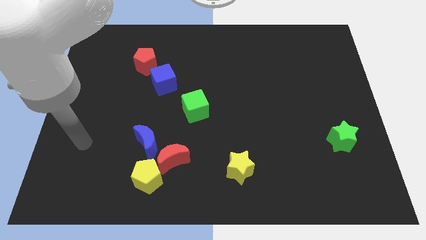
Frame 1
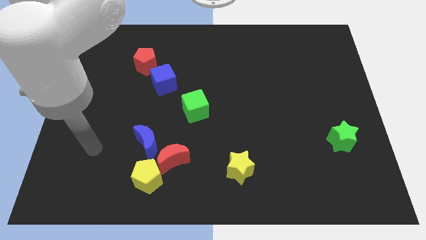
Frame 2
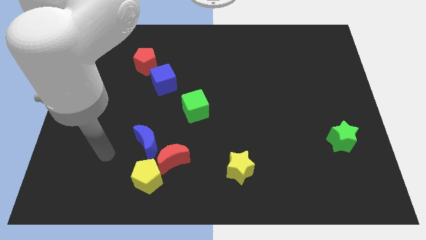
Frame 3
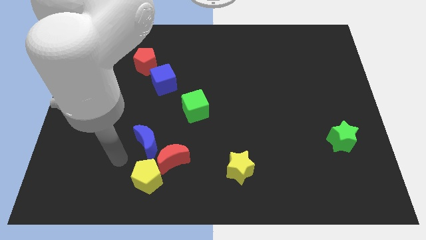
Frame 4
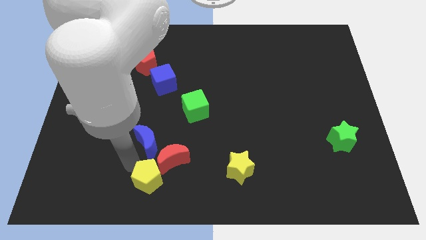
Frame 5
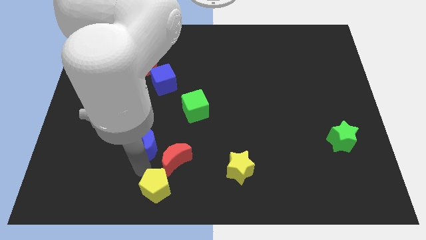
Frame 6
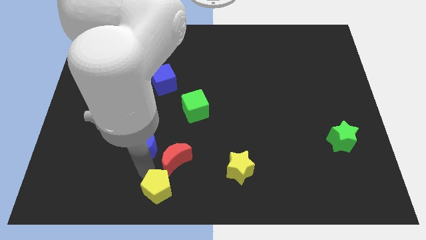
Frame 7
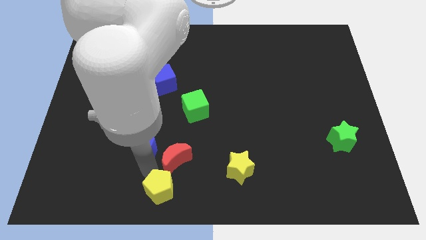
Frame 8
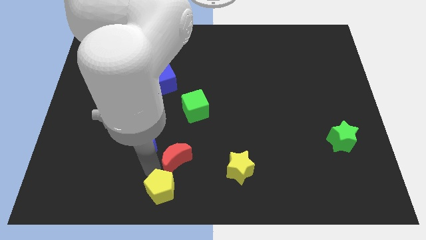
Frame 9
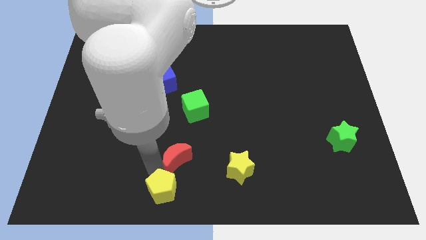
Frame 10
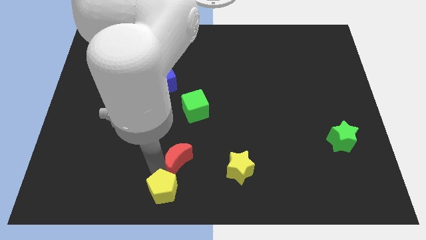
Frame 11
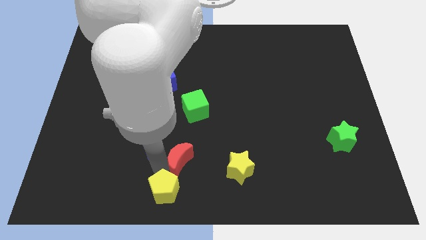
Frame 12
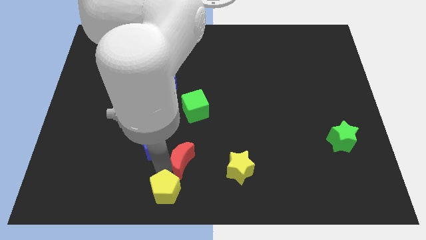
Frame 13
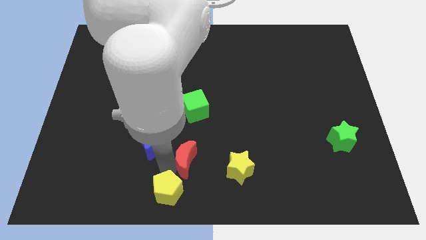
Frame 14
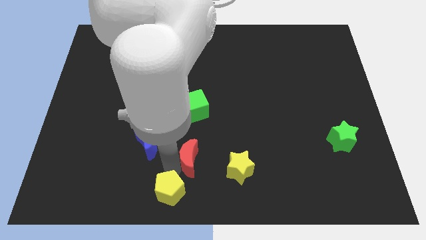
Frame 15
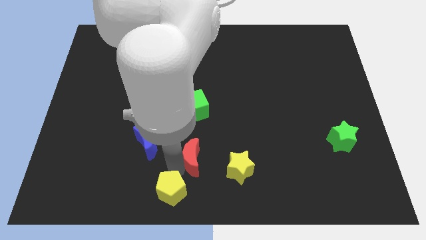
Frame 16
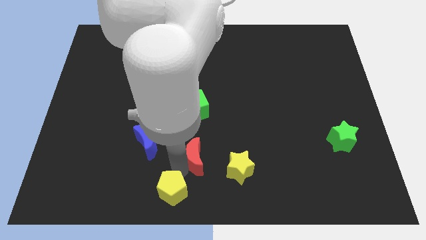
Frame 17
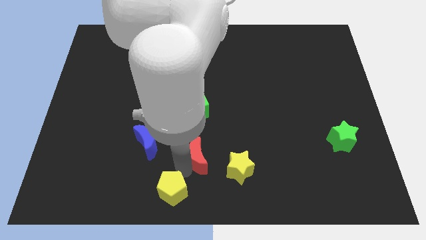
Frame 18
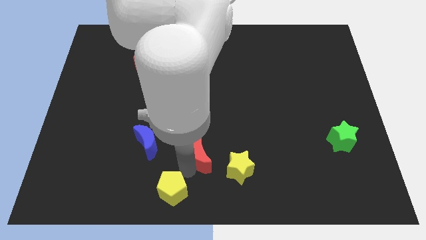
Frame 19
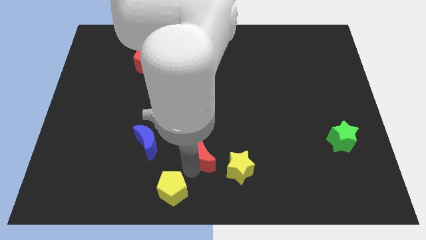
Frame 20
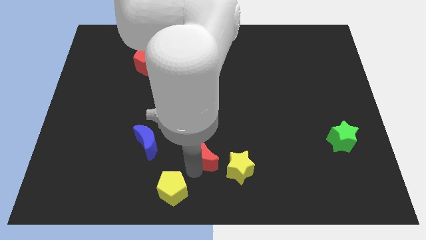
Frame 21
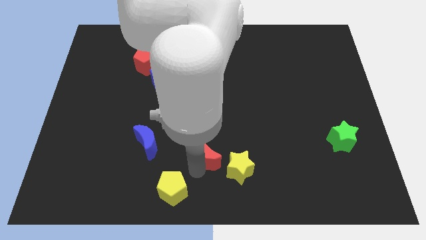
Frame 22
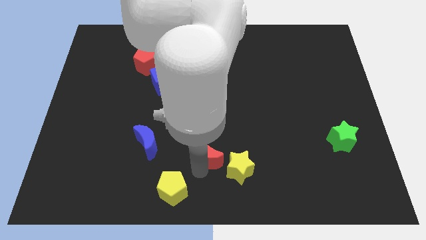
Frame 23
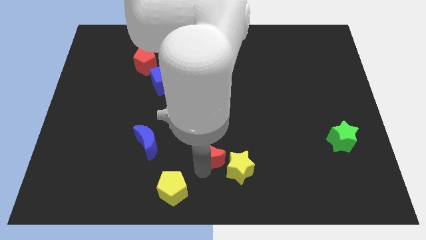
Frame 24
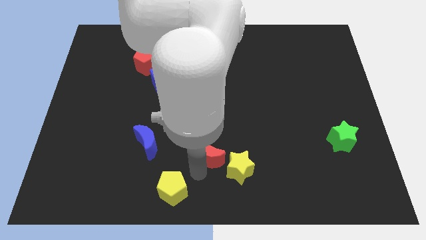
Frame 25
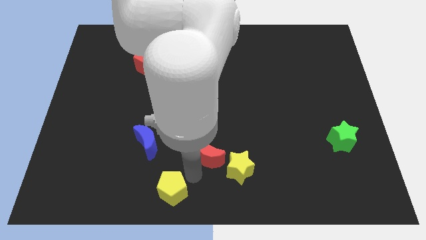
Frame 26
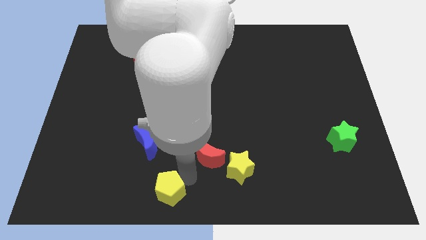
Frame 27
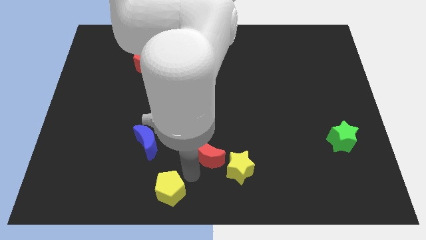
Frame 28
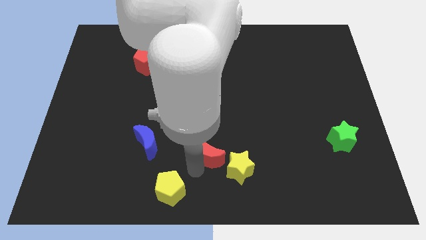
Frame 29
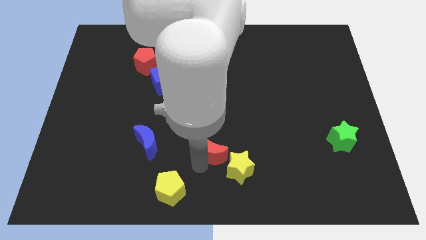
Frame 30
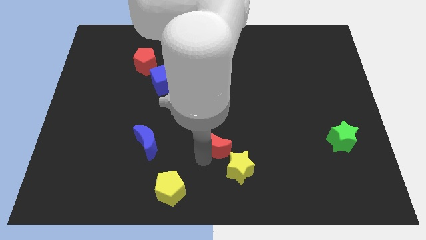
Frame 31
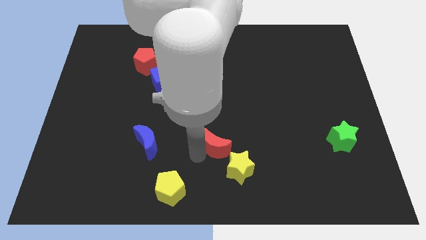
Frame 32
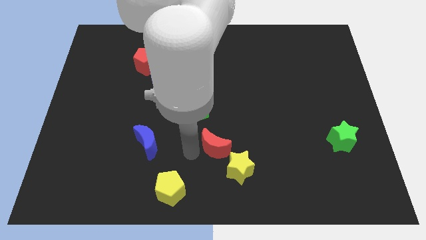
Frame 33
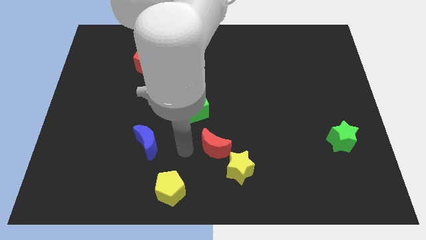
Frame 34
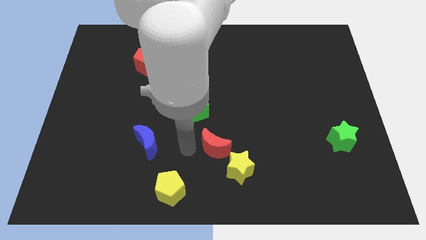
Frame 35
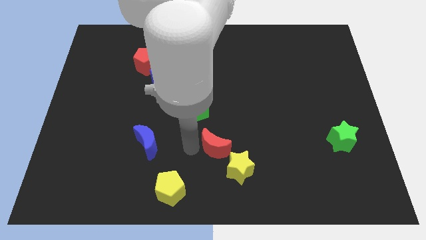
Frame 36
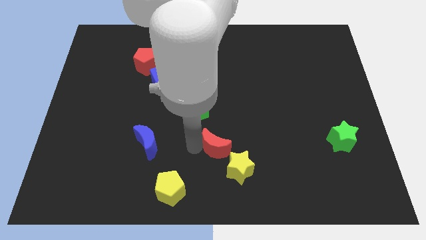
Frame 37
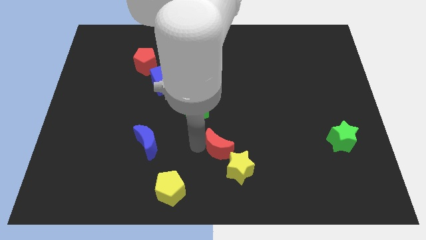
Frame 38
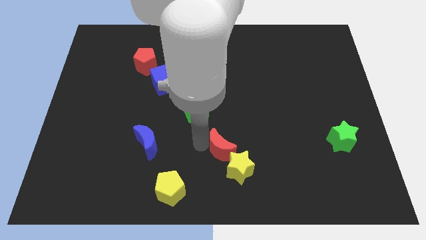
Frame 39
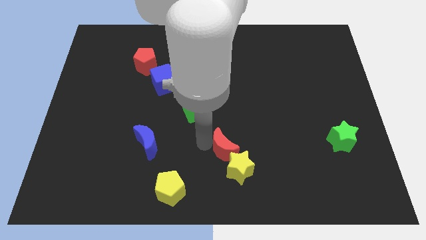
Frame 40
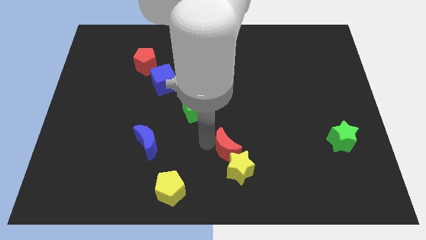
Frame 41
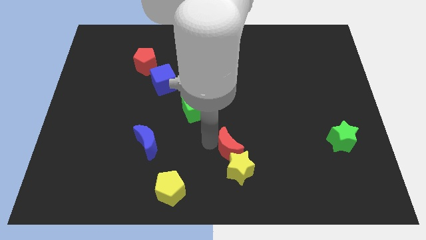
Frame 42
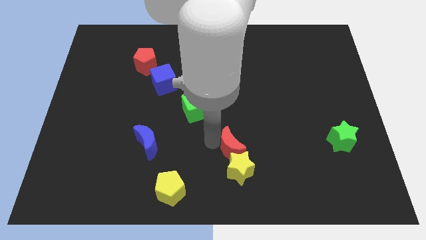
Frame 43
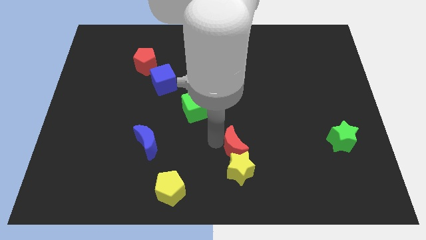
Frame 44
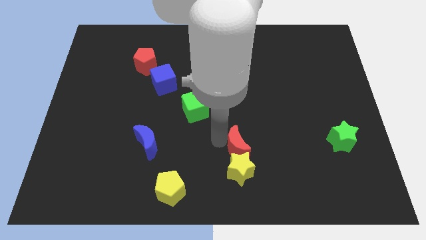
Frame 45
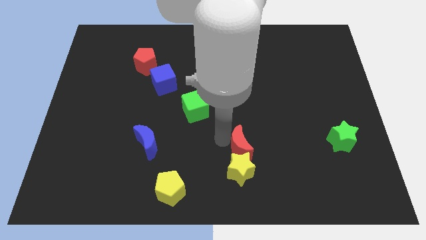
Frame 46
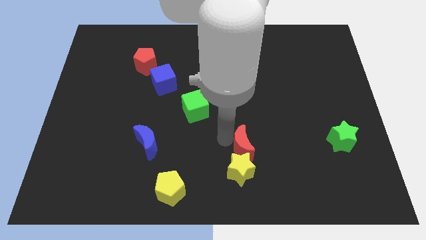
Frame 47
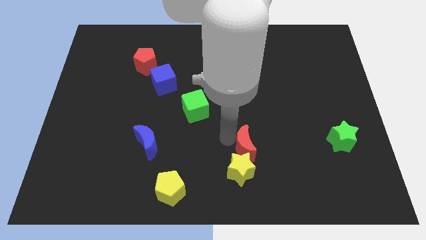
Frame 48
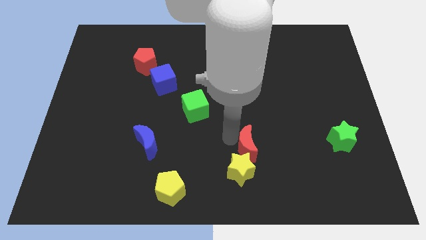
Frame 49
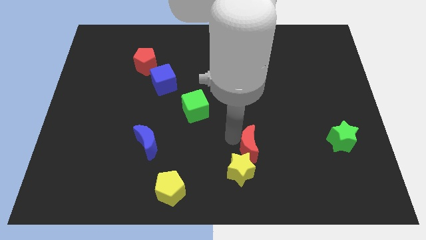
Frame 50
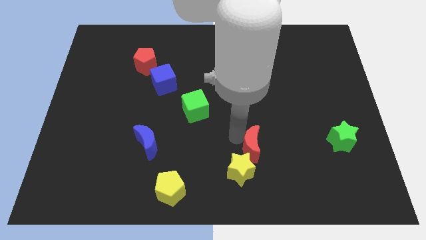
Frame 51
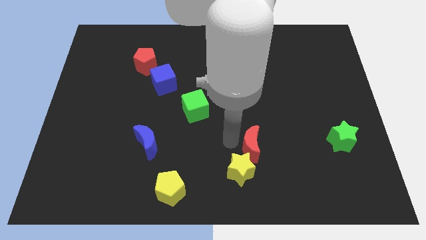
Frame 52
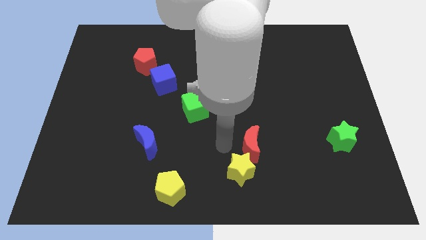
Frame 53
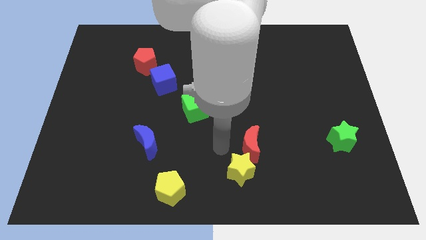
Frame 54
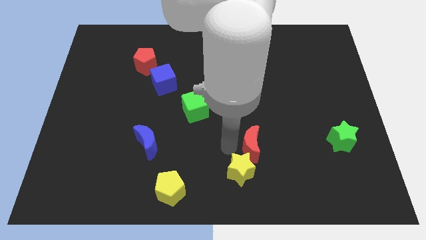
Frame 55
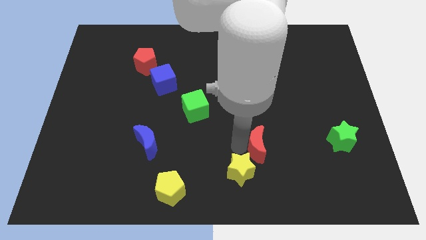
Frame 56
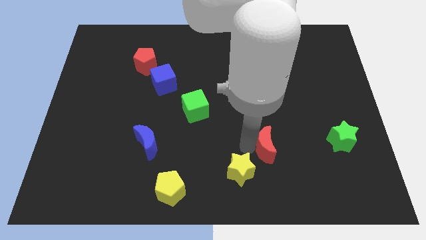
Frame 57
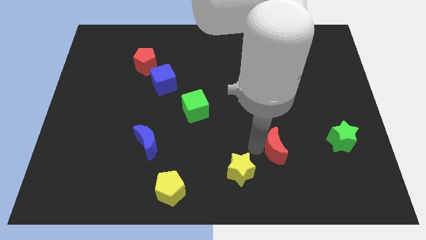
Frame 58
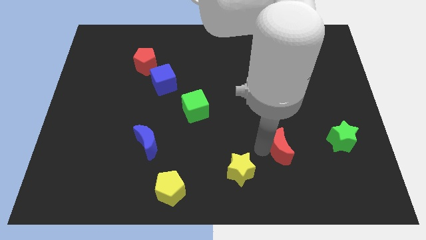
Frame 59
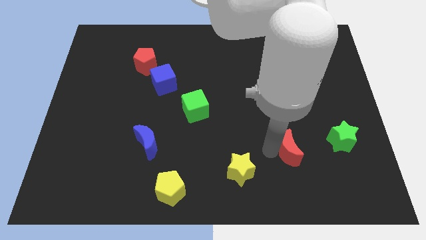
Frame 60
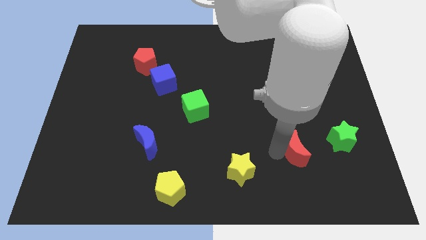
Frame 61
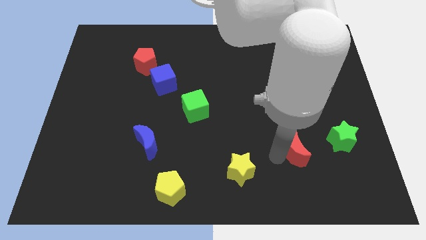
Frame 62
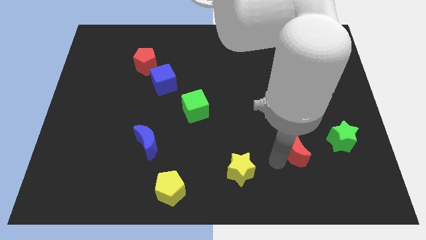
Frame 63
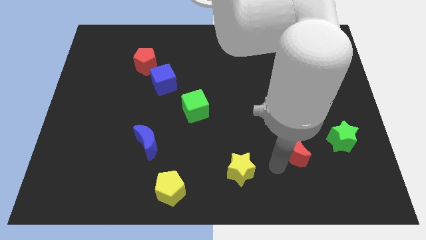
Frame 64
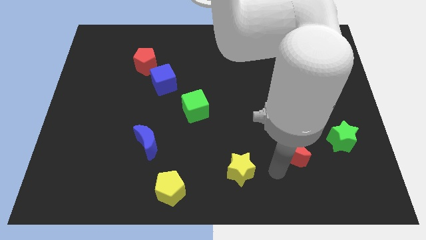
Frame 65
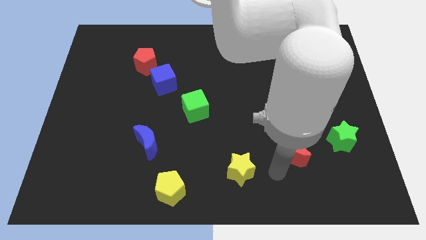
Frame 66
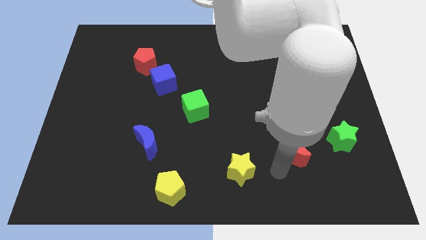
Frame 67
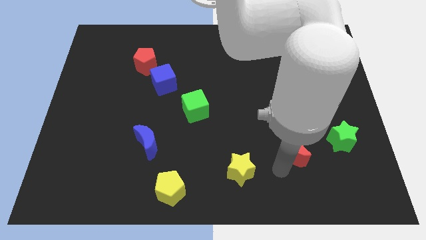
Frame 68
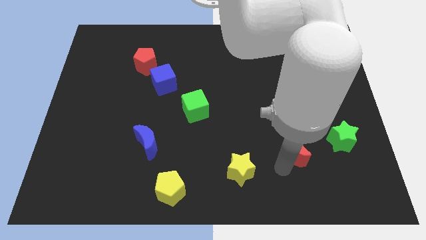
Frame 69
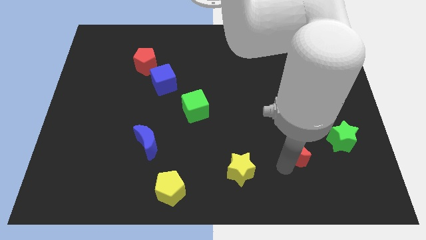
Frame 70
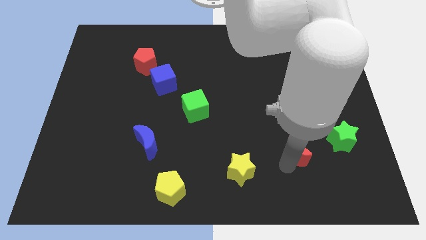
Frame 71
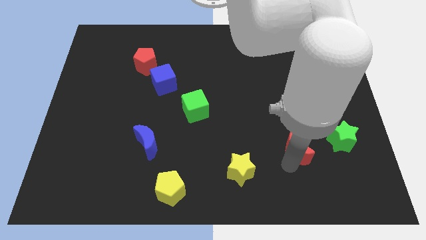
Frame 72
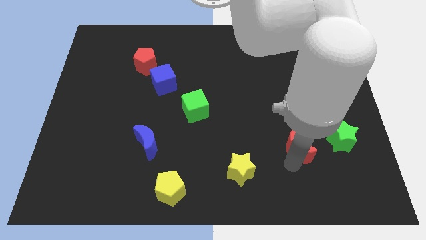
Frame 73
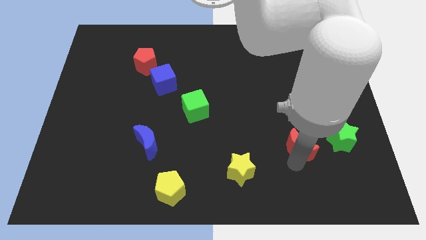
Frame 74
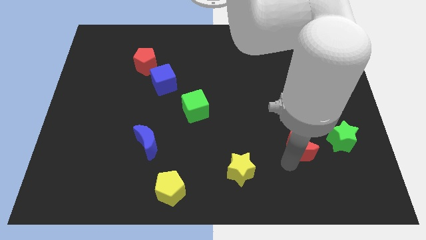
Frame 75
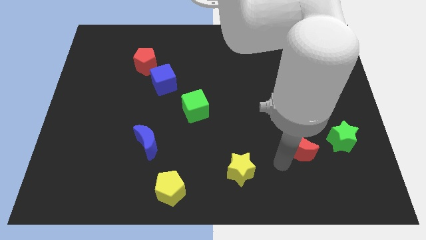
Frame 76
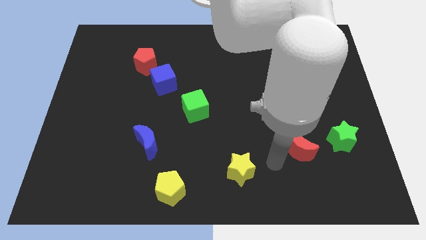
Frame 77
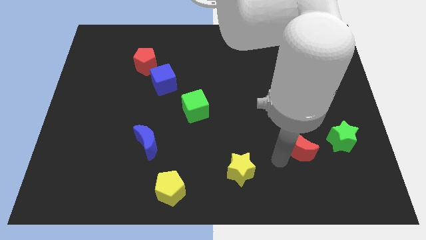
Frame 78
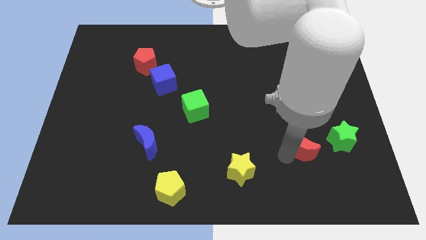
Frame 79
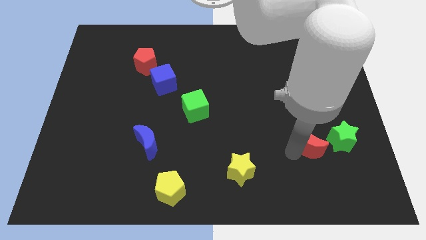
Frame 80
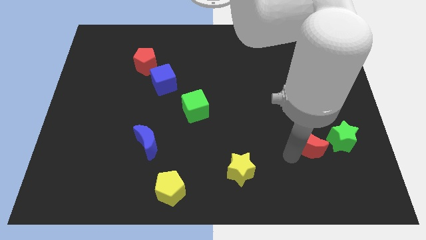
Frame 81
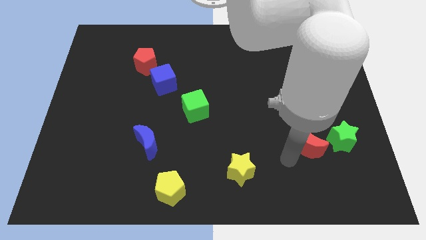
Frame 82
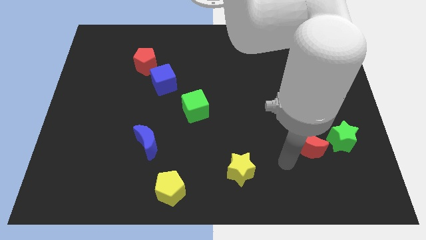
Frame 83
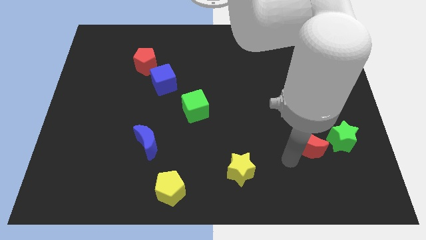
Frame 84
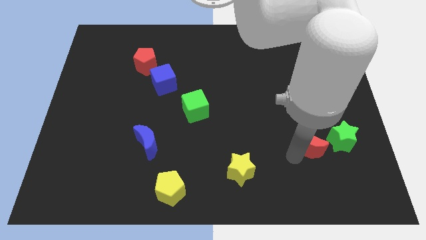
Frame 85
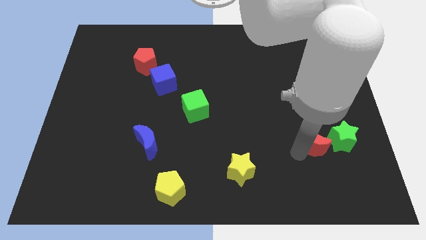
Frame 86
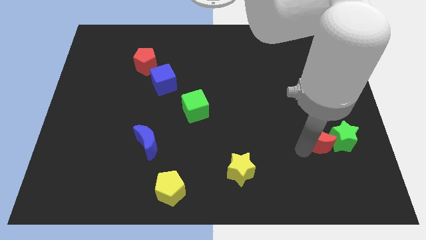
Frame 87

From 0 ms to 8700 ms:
slide the red moon to the green star
